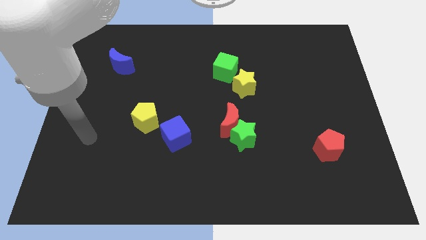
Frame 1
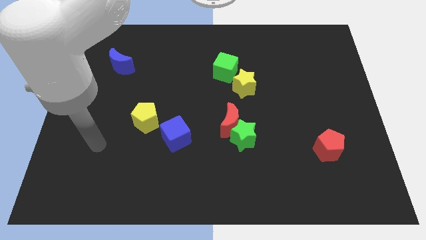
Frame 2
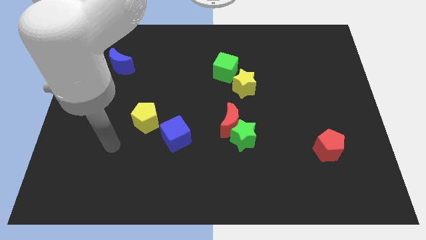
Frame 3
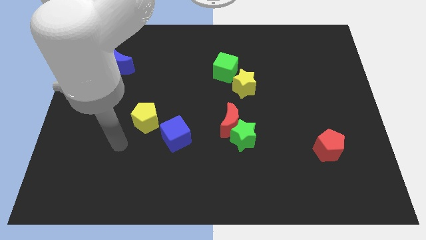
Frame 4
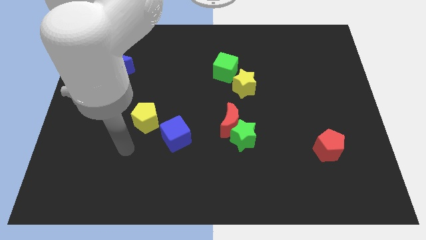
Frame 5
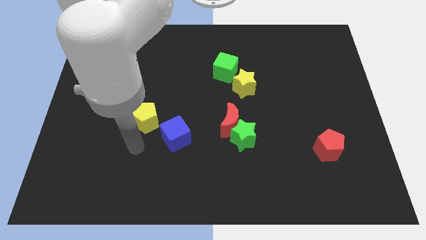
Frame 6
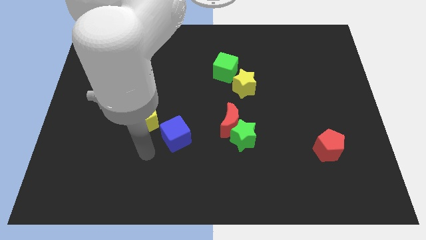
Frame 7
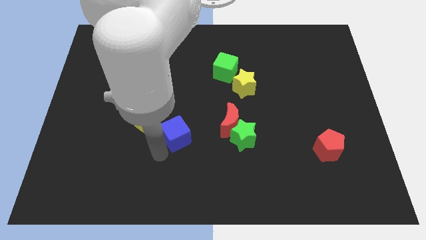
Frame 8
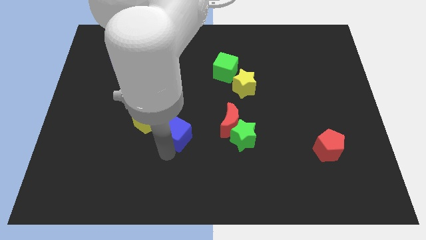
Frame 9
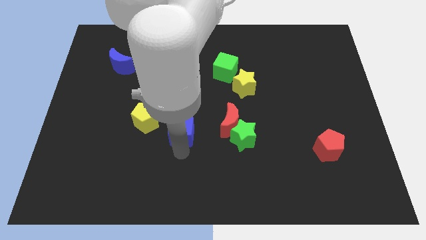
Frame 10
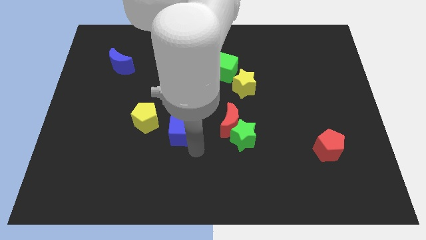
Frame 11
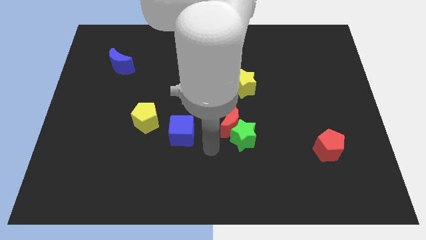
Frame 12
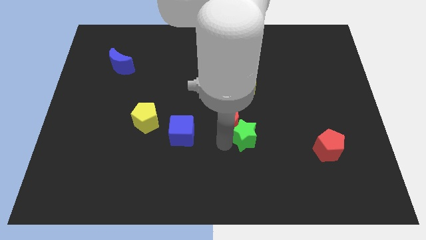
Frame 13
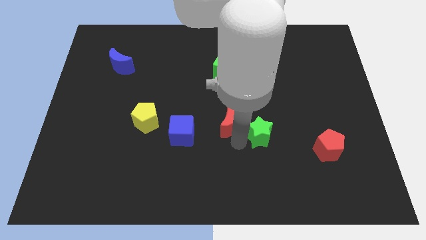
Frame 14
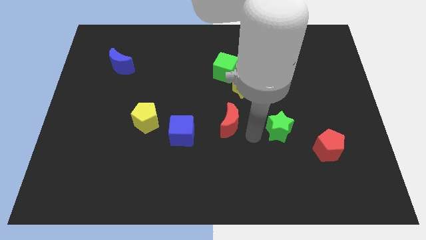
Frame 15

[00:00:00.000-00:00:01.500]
separate the red moon from the green star

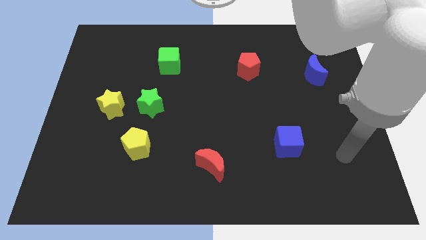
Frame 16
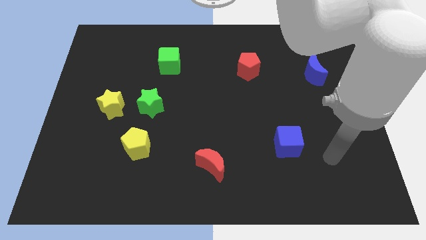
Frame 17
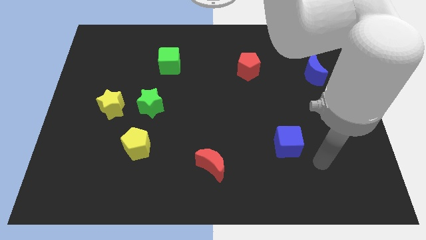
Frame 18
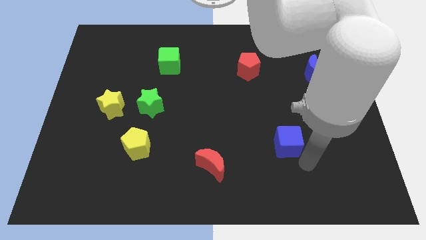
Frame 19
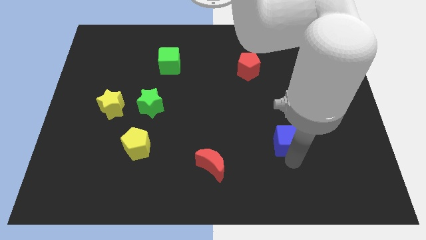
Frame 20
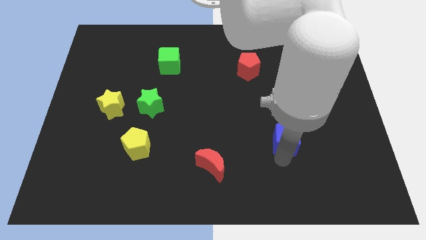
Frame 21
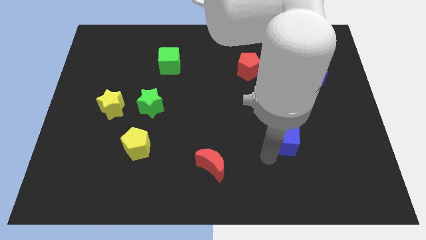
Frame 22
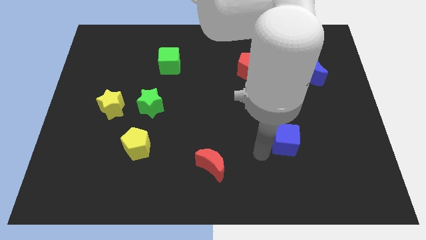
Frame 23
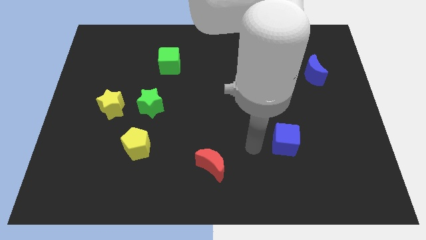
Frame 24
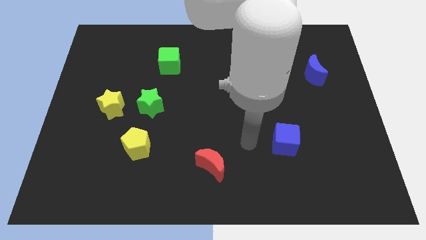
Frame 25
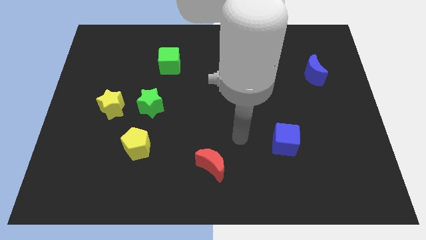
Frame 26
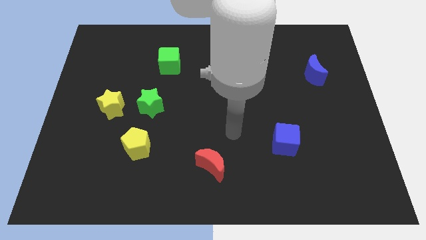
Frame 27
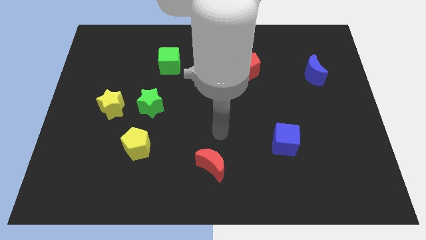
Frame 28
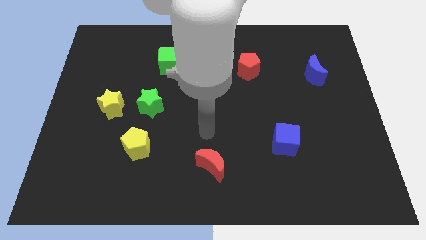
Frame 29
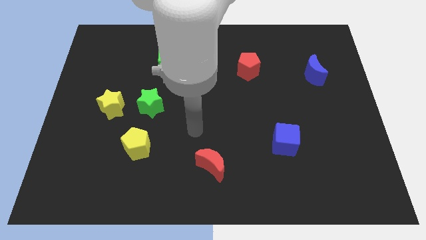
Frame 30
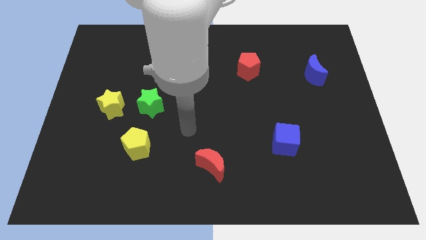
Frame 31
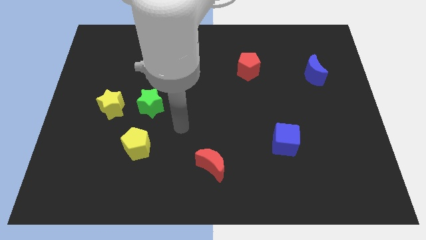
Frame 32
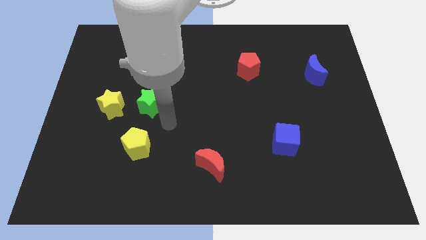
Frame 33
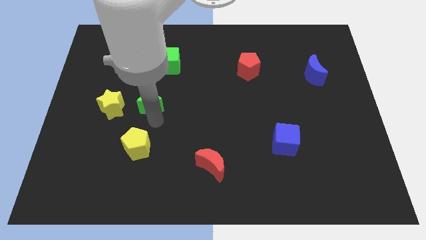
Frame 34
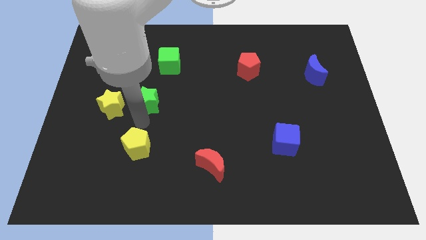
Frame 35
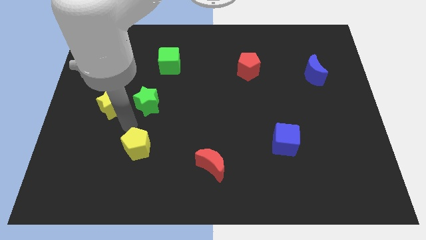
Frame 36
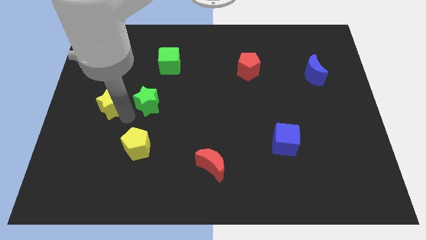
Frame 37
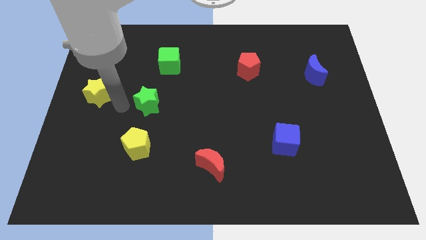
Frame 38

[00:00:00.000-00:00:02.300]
pull the green star apart from the yellow star

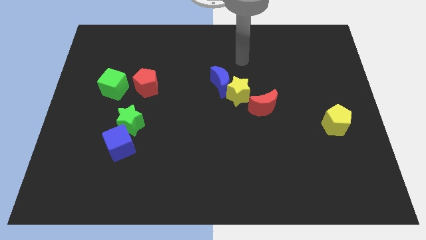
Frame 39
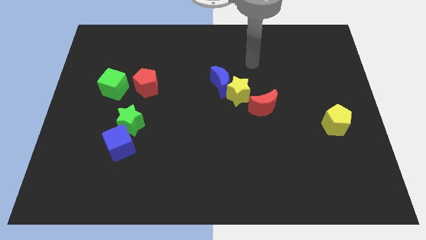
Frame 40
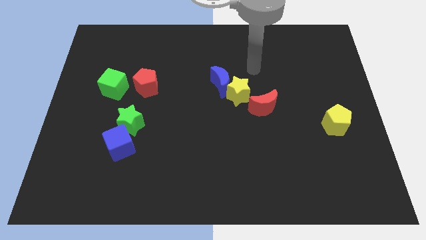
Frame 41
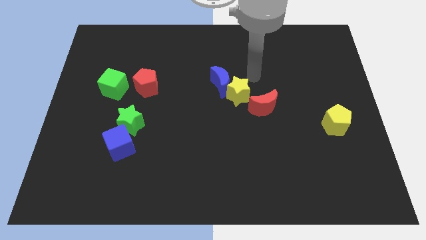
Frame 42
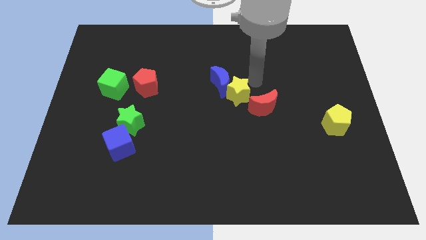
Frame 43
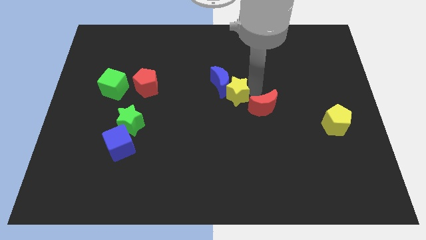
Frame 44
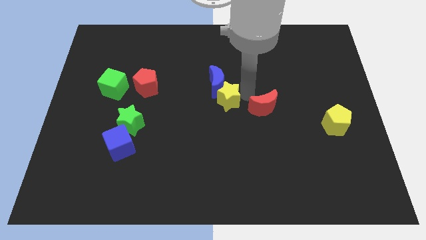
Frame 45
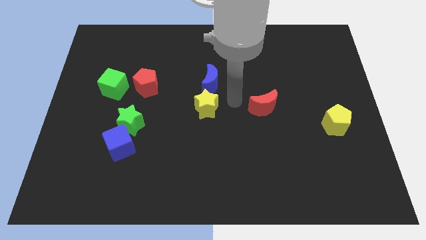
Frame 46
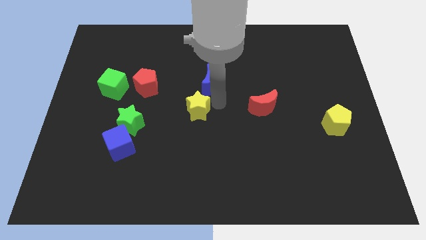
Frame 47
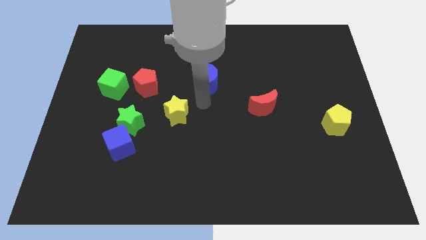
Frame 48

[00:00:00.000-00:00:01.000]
separate the blue moon from the yellow star

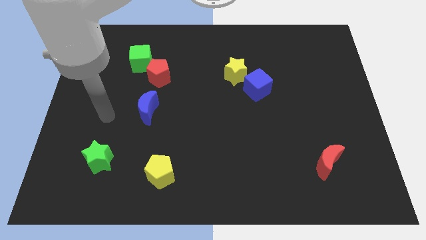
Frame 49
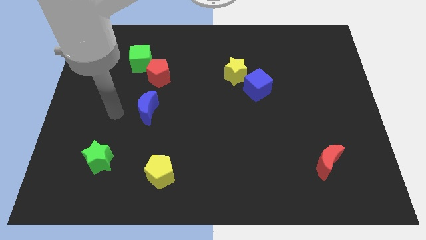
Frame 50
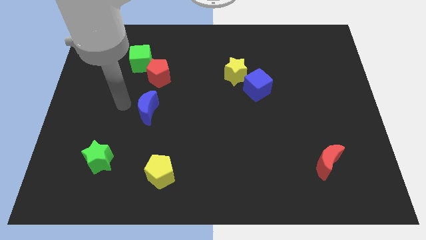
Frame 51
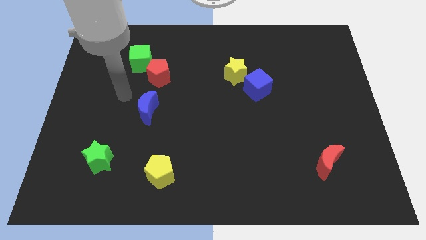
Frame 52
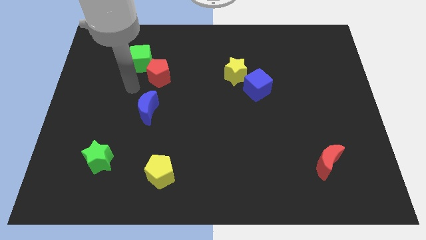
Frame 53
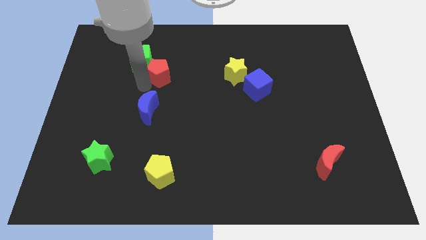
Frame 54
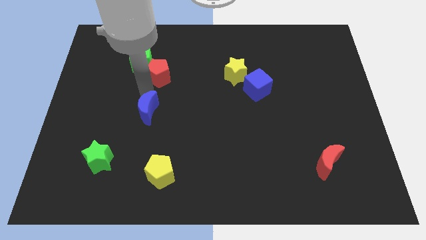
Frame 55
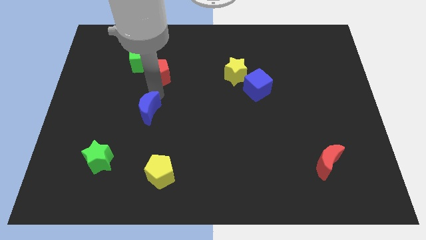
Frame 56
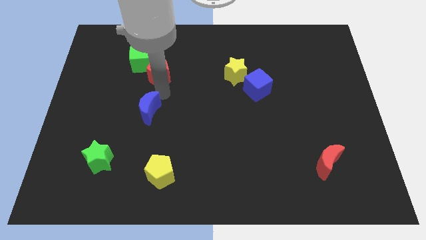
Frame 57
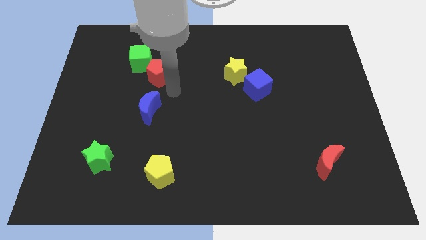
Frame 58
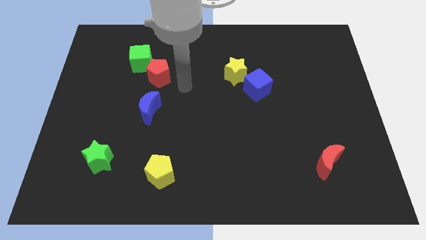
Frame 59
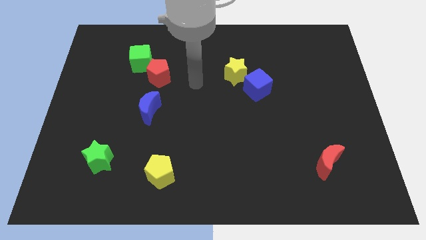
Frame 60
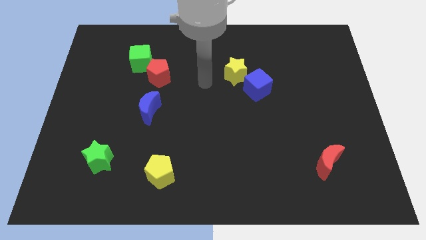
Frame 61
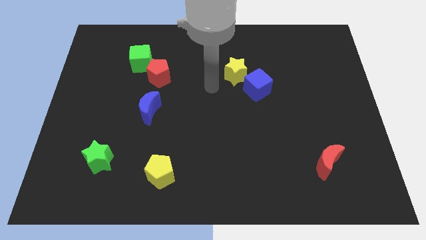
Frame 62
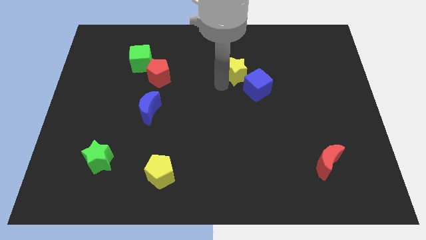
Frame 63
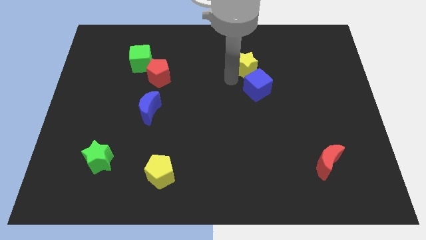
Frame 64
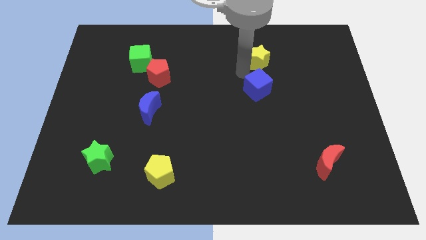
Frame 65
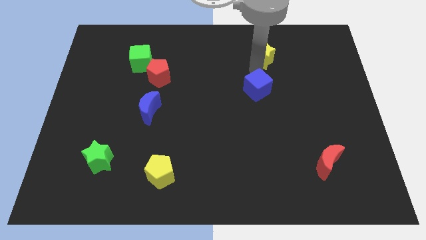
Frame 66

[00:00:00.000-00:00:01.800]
move the blue cube away from the yellow star

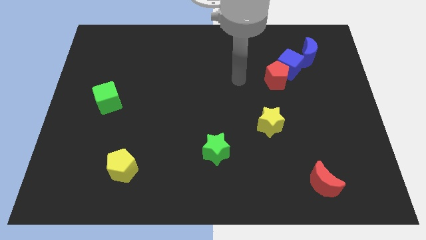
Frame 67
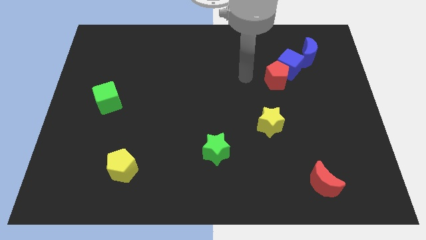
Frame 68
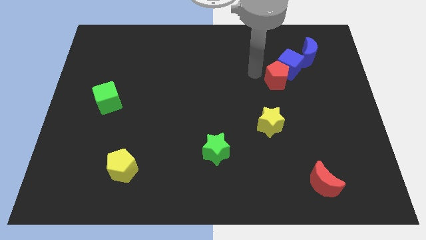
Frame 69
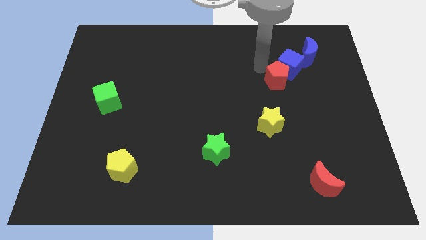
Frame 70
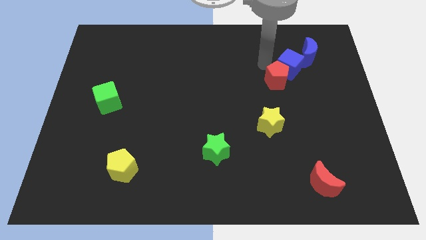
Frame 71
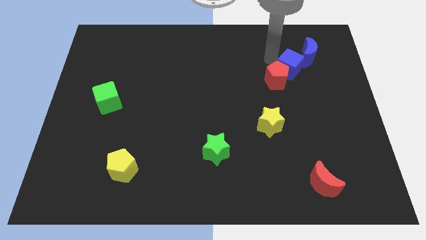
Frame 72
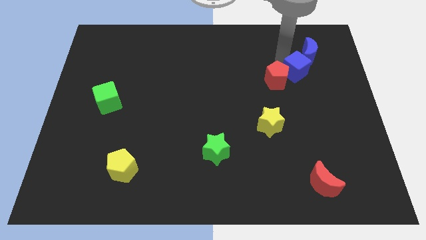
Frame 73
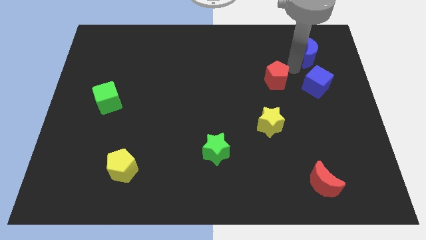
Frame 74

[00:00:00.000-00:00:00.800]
pull the red pentagon apart from the blue cube

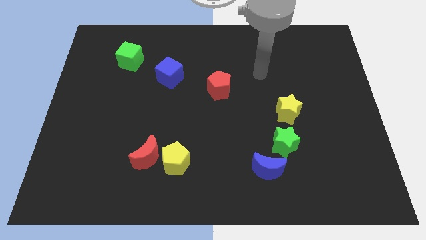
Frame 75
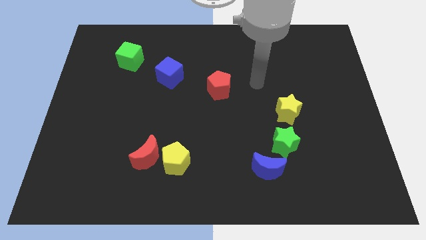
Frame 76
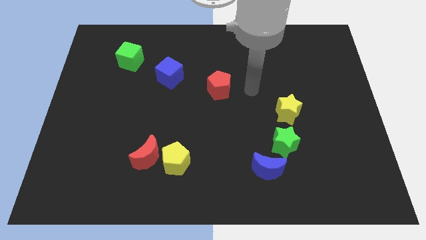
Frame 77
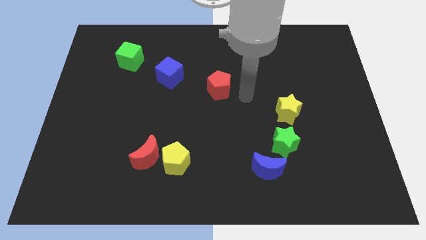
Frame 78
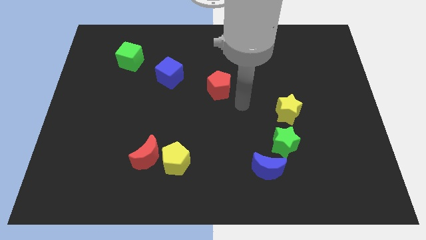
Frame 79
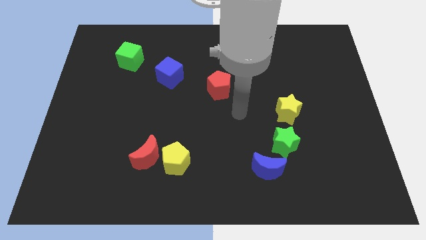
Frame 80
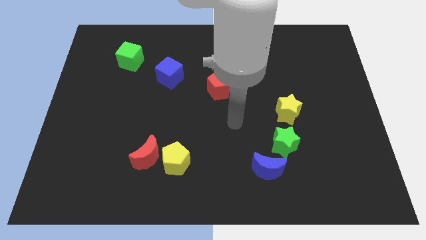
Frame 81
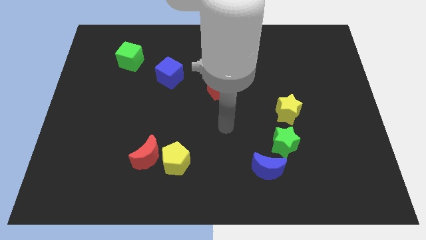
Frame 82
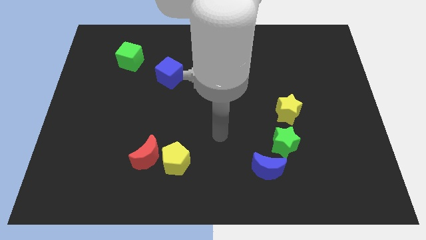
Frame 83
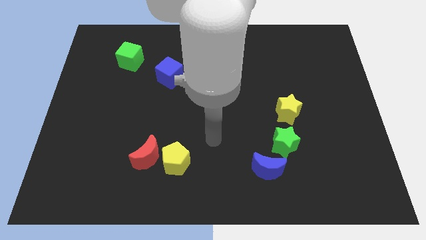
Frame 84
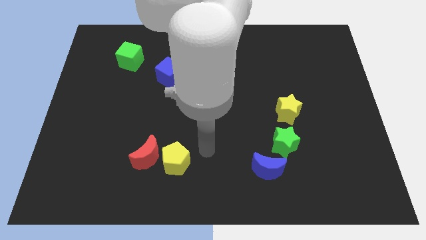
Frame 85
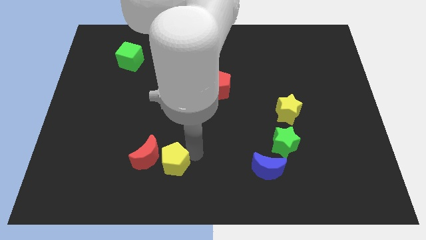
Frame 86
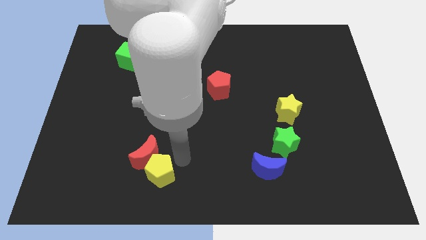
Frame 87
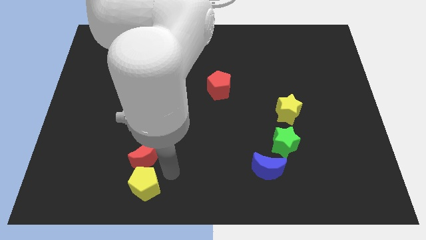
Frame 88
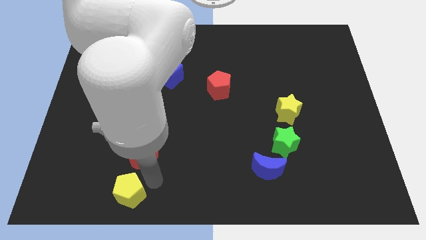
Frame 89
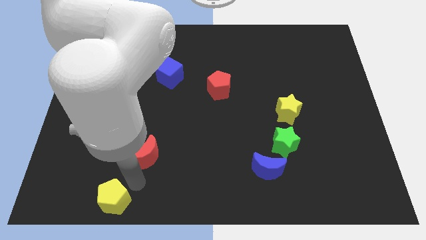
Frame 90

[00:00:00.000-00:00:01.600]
separate the red moon from the yellow pentagon

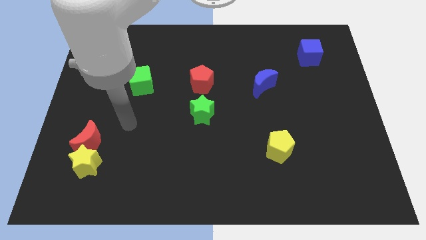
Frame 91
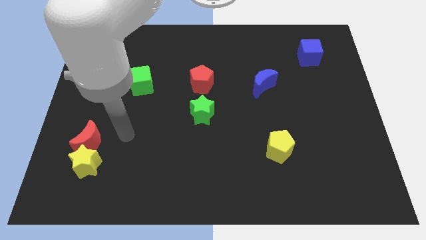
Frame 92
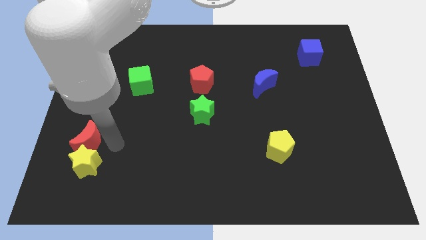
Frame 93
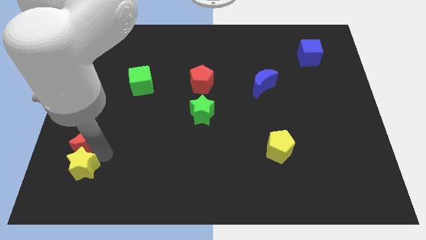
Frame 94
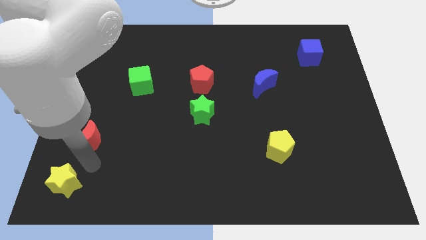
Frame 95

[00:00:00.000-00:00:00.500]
separate the red moon from the yellow star
